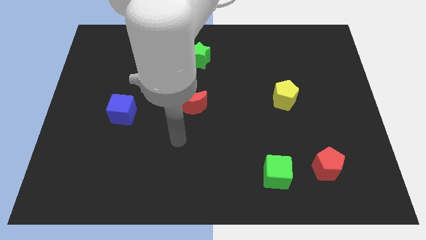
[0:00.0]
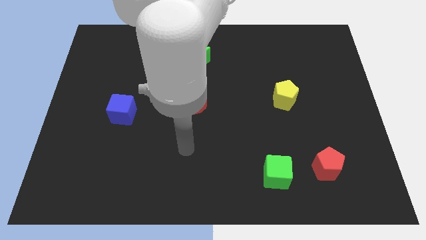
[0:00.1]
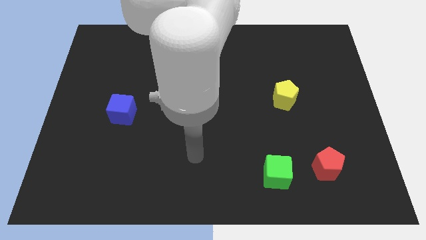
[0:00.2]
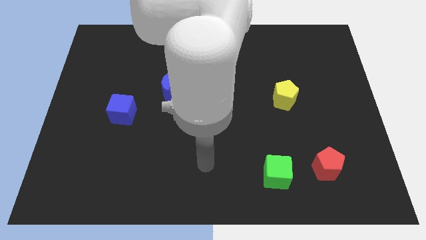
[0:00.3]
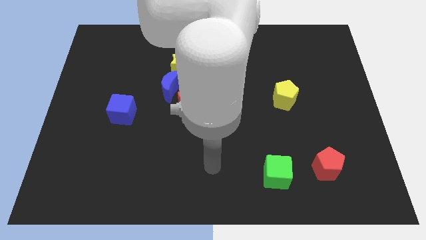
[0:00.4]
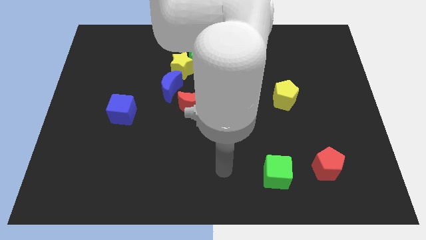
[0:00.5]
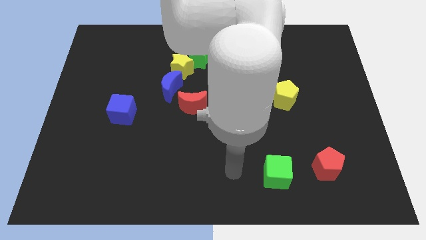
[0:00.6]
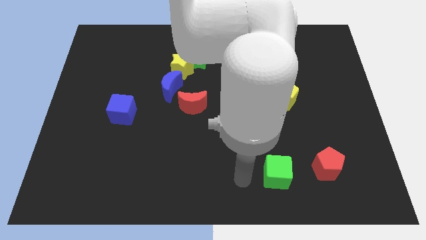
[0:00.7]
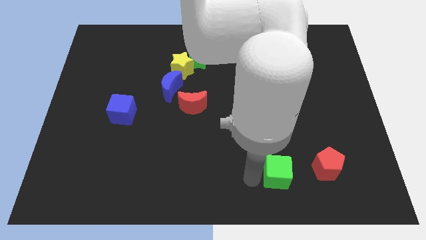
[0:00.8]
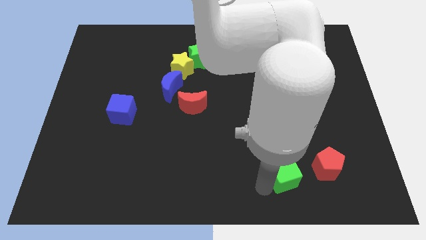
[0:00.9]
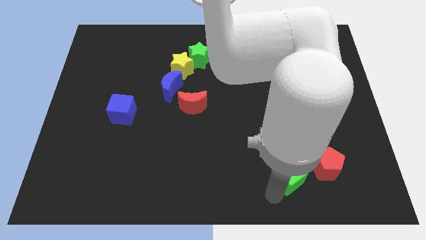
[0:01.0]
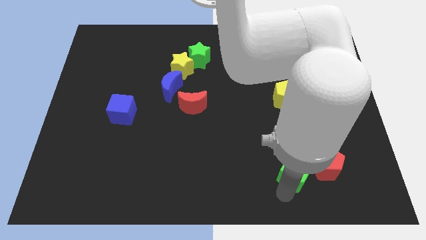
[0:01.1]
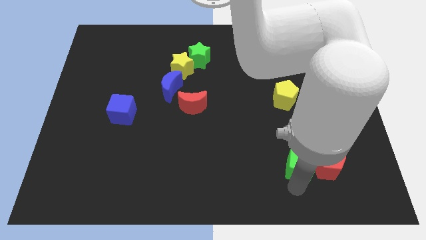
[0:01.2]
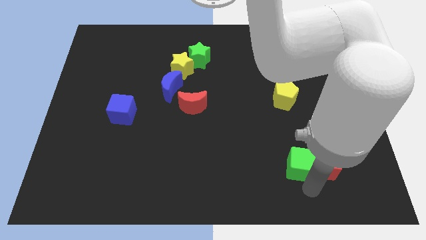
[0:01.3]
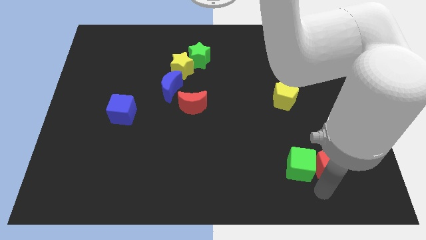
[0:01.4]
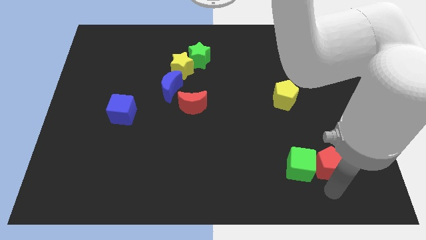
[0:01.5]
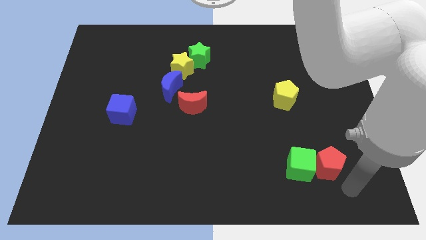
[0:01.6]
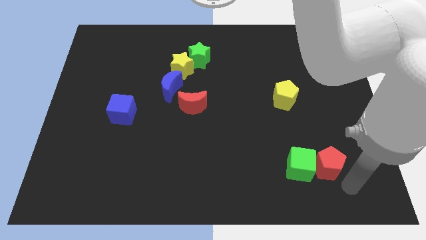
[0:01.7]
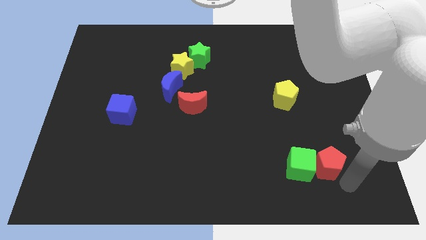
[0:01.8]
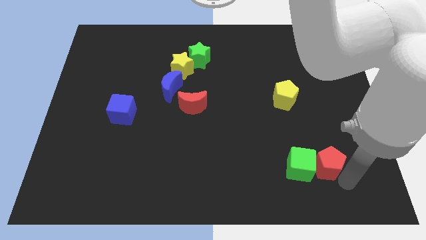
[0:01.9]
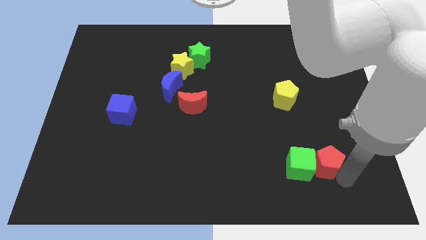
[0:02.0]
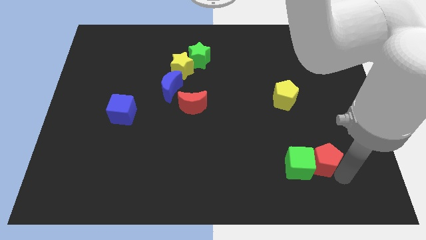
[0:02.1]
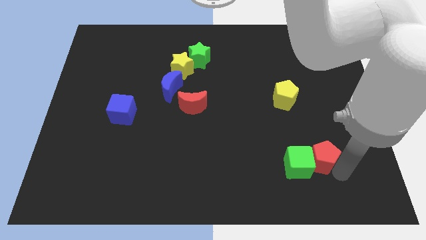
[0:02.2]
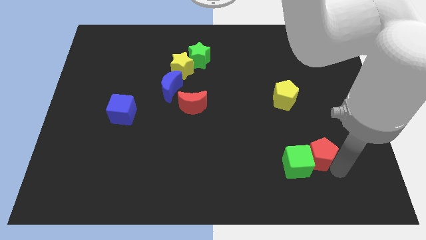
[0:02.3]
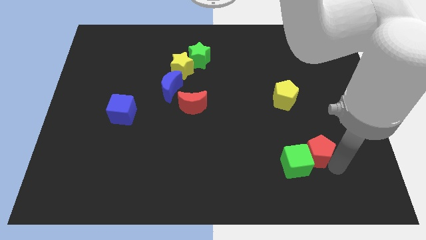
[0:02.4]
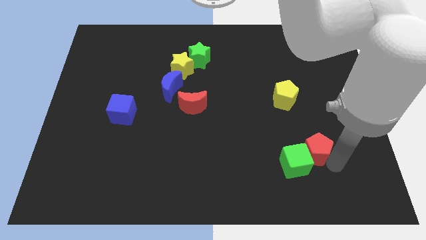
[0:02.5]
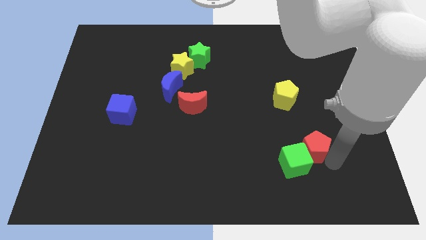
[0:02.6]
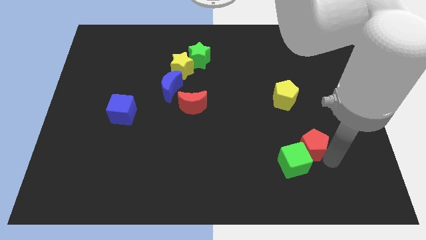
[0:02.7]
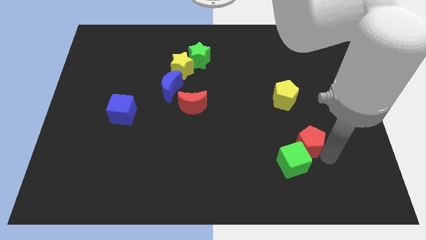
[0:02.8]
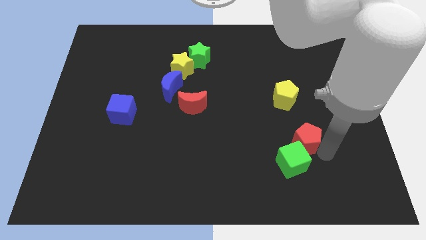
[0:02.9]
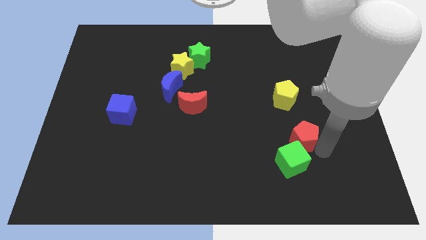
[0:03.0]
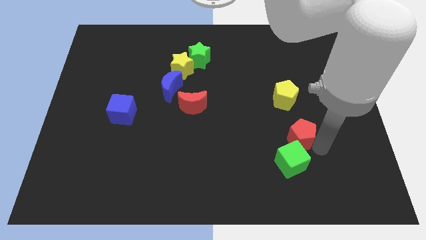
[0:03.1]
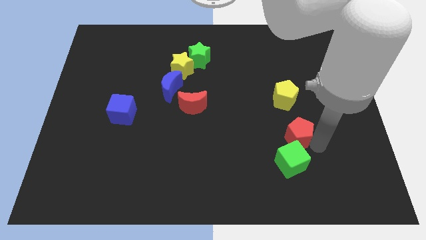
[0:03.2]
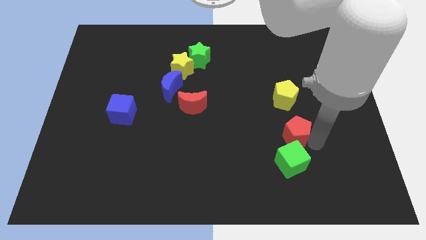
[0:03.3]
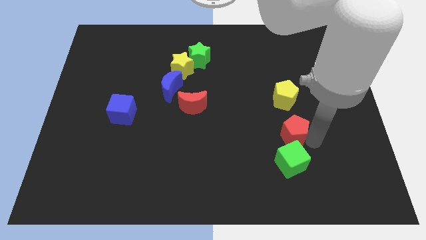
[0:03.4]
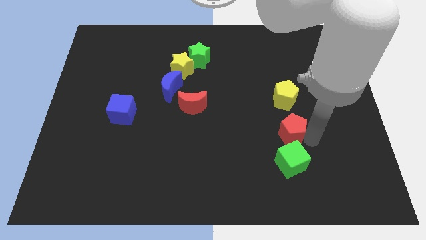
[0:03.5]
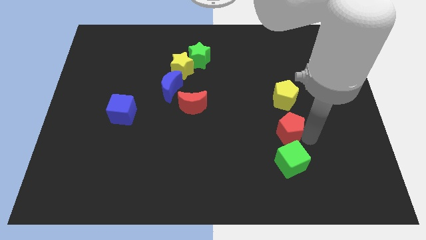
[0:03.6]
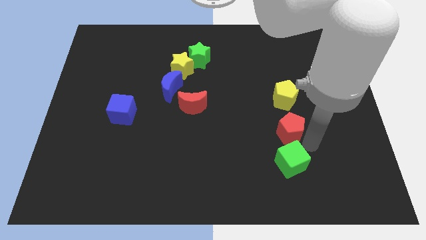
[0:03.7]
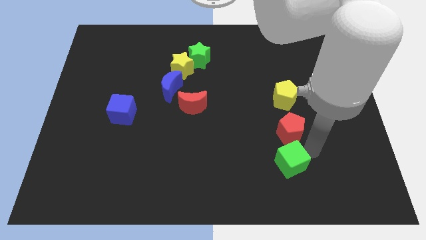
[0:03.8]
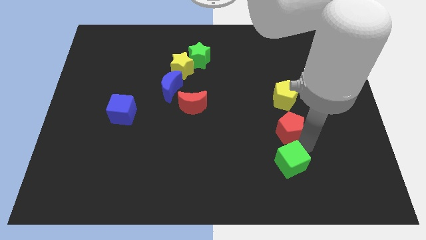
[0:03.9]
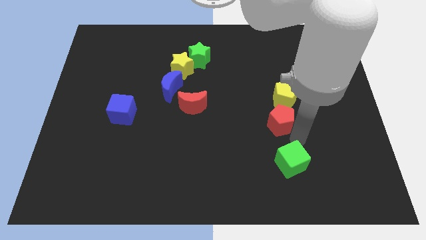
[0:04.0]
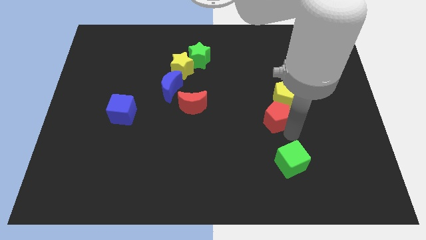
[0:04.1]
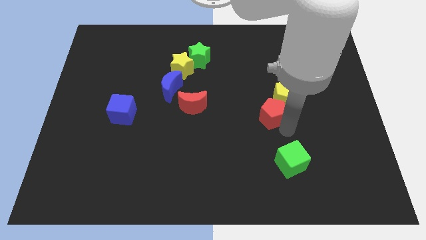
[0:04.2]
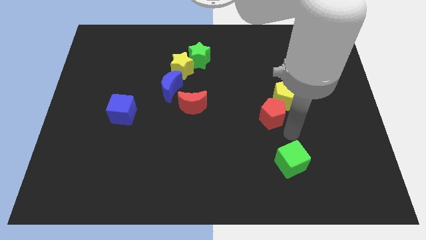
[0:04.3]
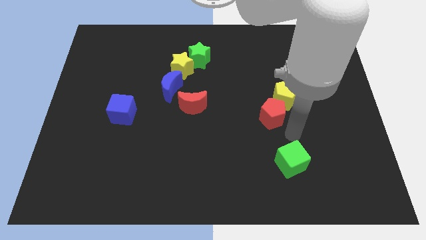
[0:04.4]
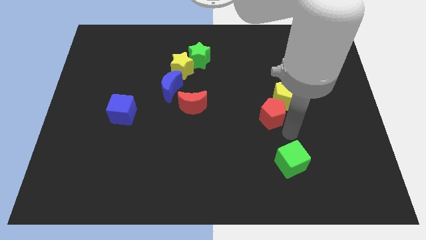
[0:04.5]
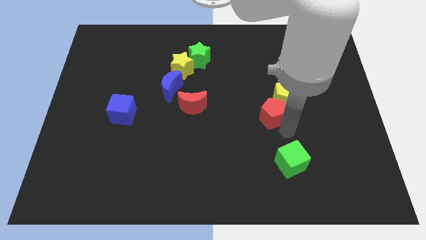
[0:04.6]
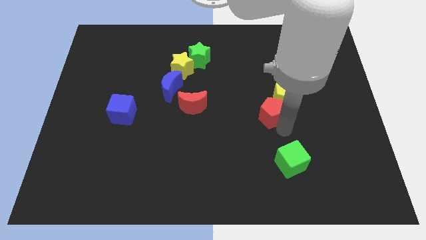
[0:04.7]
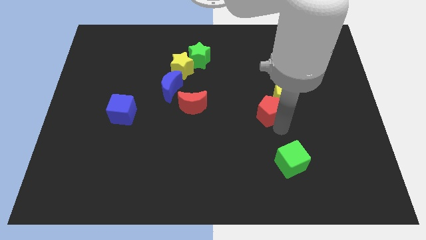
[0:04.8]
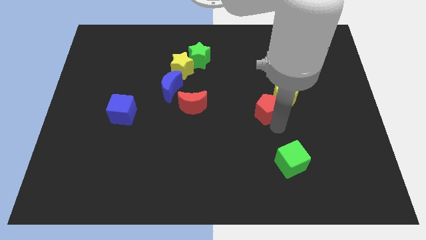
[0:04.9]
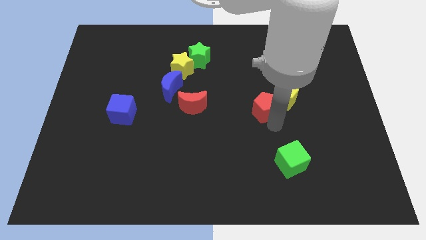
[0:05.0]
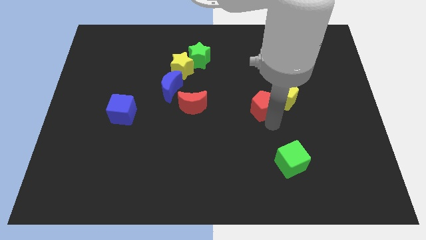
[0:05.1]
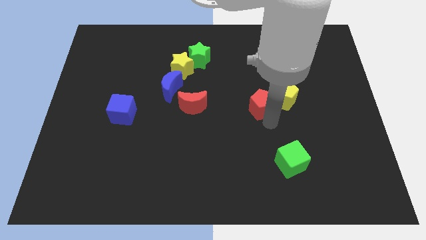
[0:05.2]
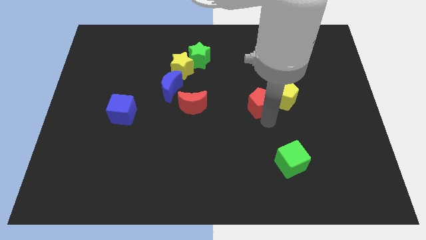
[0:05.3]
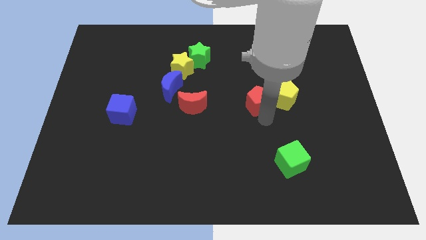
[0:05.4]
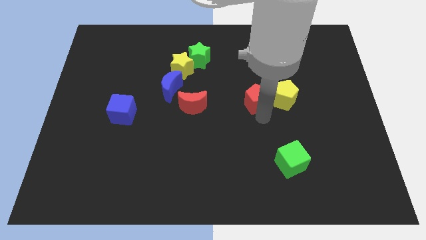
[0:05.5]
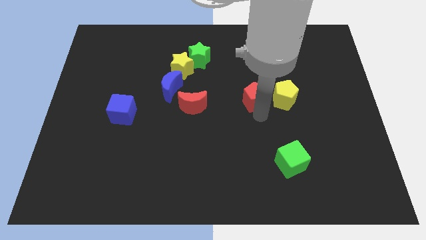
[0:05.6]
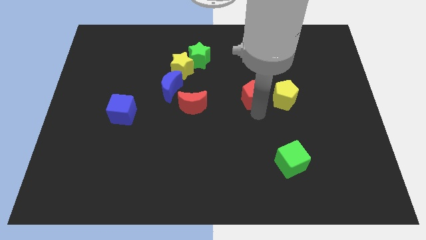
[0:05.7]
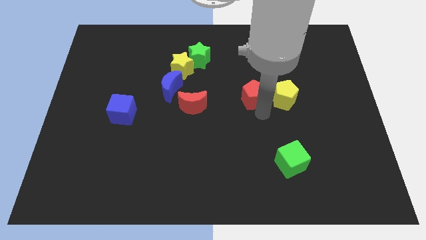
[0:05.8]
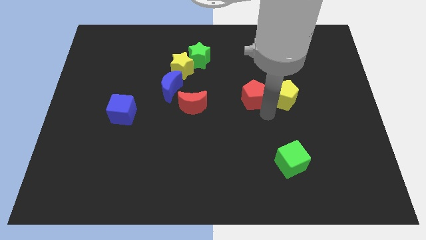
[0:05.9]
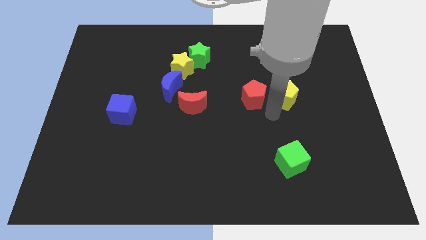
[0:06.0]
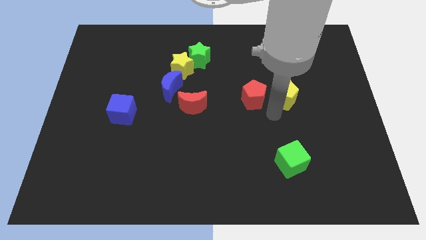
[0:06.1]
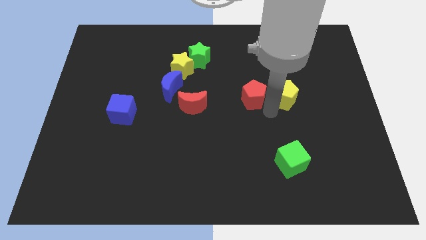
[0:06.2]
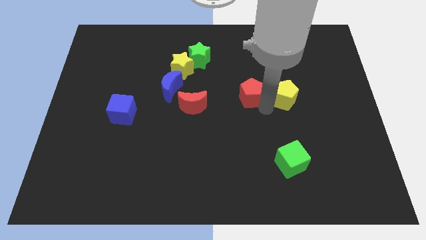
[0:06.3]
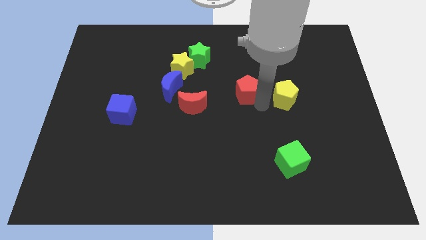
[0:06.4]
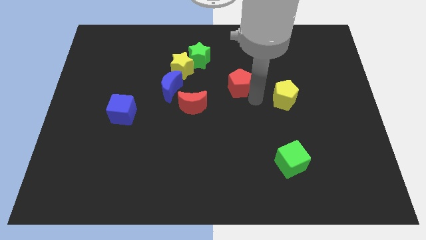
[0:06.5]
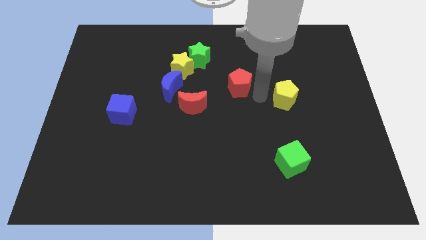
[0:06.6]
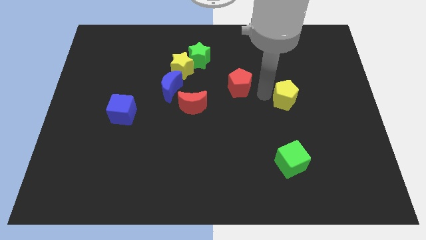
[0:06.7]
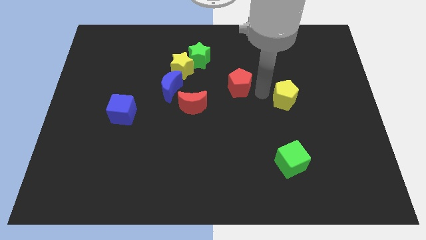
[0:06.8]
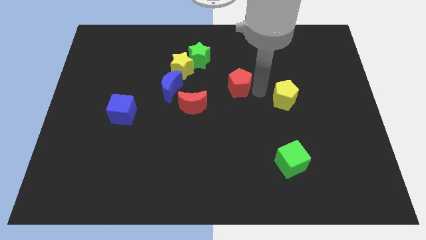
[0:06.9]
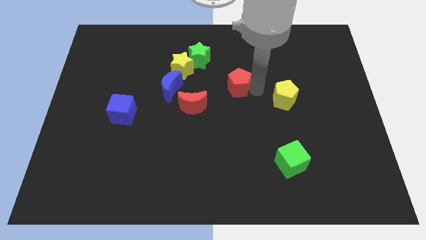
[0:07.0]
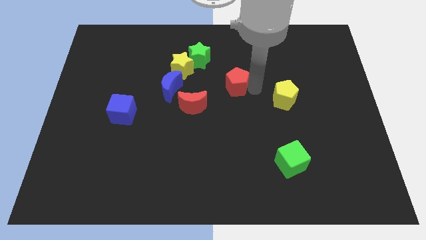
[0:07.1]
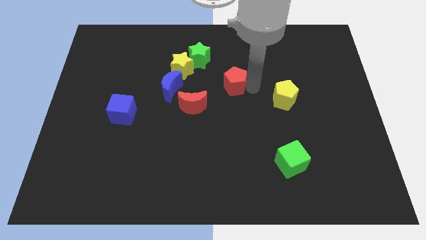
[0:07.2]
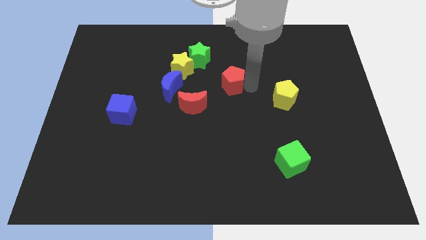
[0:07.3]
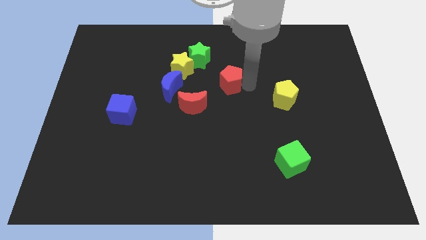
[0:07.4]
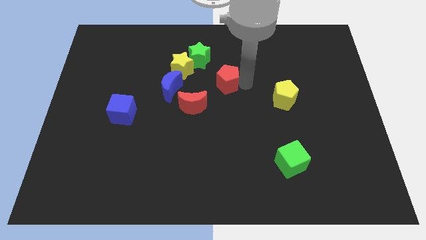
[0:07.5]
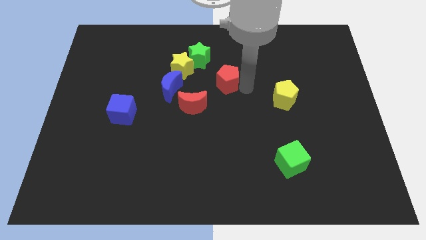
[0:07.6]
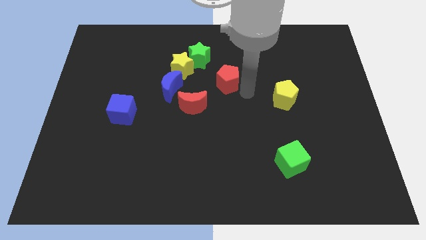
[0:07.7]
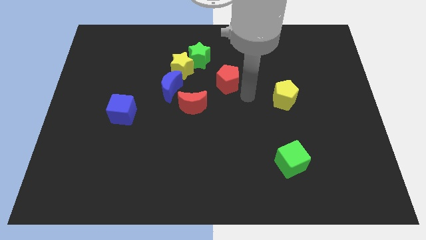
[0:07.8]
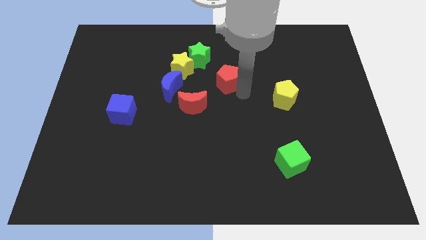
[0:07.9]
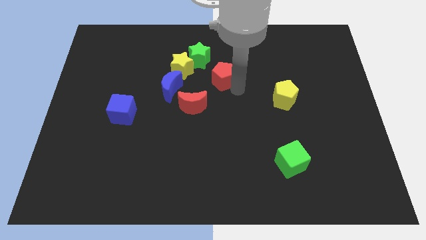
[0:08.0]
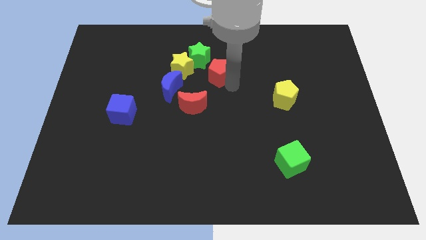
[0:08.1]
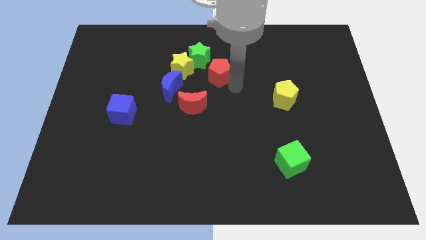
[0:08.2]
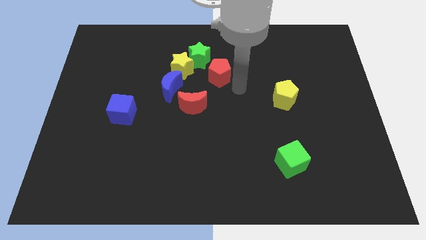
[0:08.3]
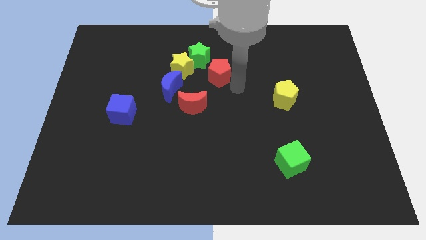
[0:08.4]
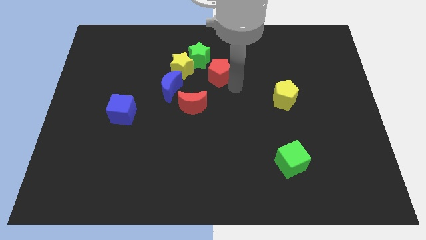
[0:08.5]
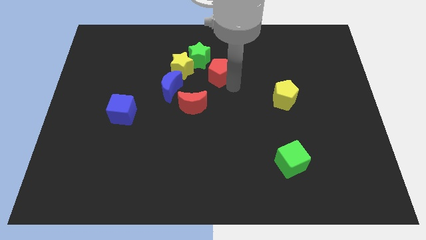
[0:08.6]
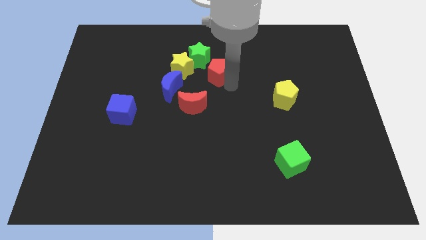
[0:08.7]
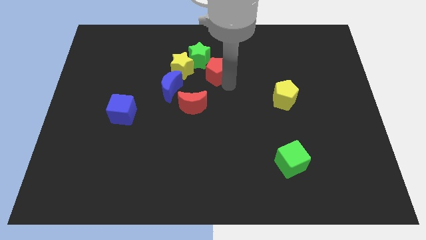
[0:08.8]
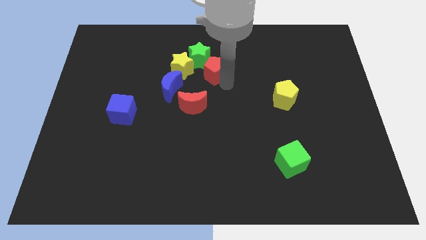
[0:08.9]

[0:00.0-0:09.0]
move the red pentagon to the green star
